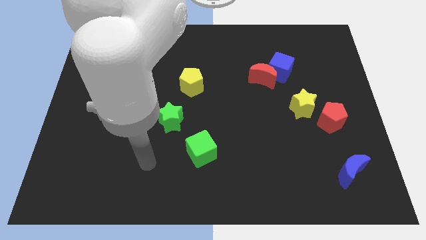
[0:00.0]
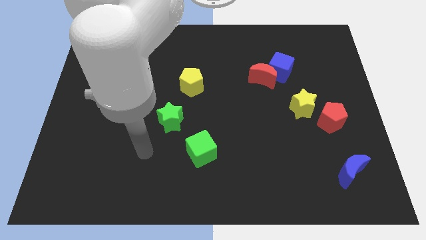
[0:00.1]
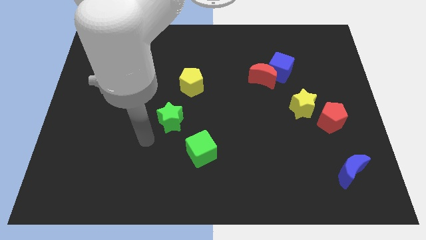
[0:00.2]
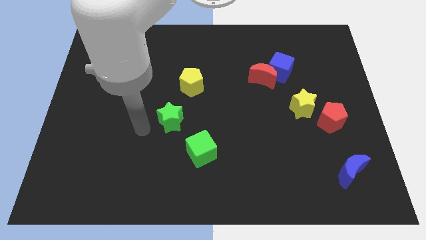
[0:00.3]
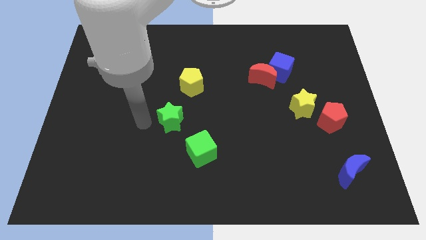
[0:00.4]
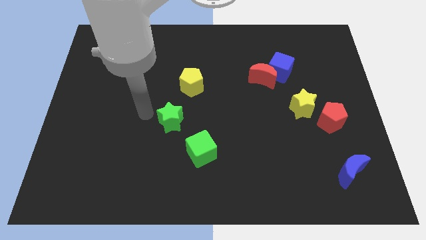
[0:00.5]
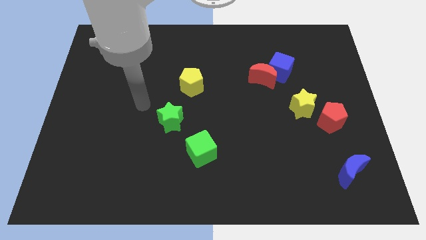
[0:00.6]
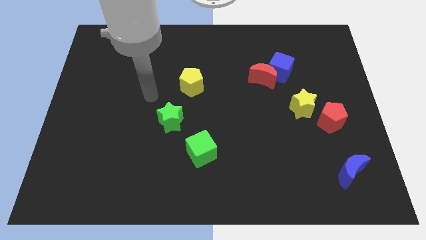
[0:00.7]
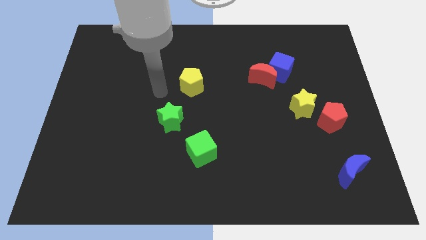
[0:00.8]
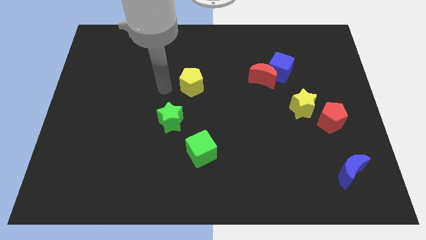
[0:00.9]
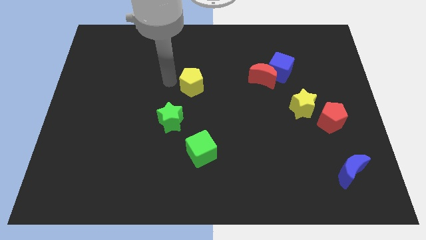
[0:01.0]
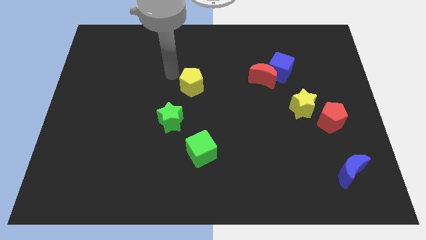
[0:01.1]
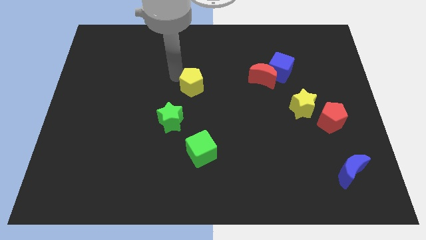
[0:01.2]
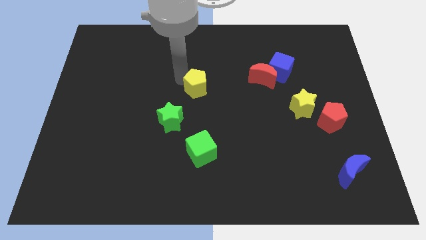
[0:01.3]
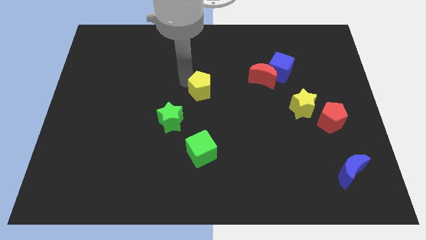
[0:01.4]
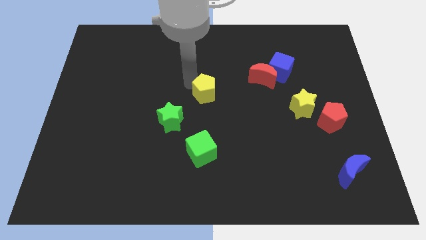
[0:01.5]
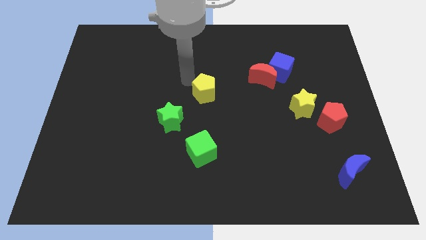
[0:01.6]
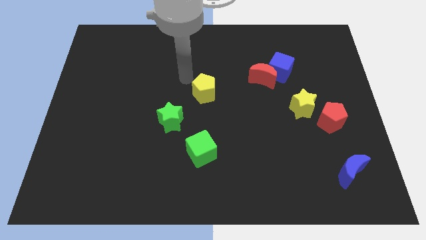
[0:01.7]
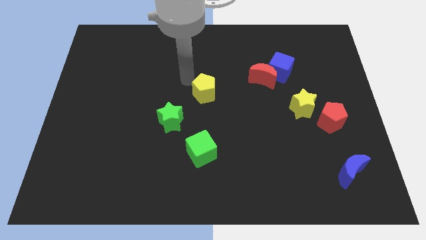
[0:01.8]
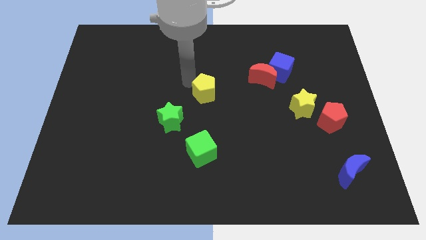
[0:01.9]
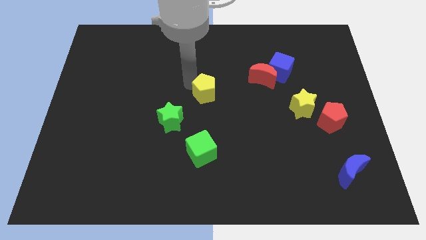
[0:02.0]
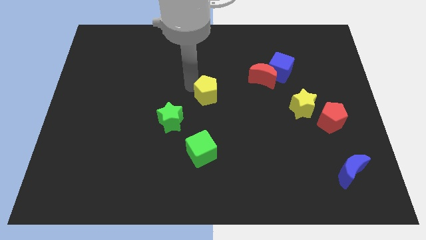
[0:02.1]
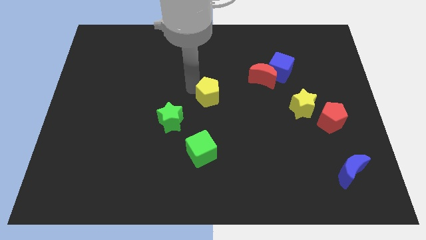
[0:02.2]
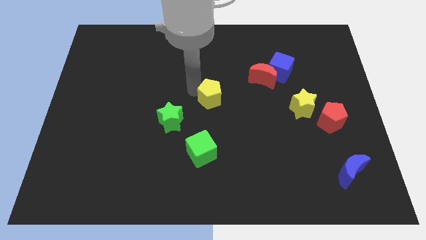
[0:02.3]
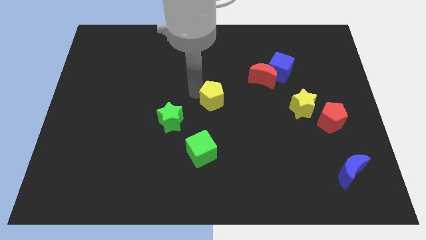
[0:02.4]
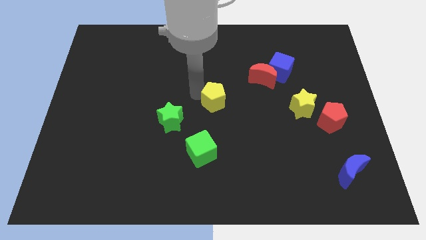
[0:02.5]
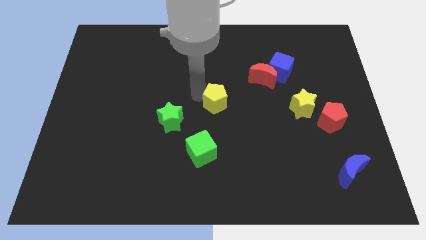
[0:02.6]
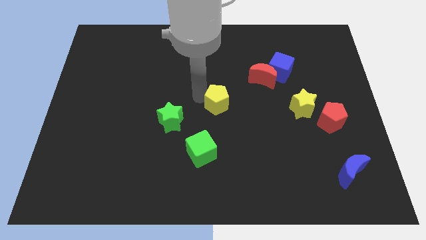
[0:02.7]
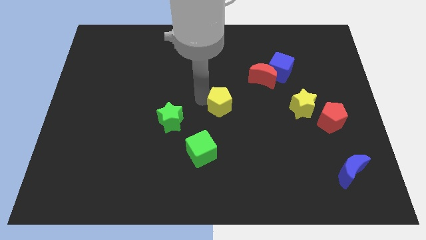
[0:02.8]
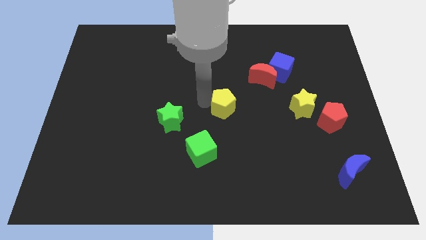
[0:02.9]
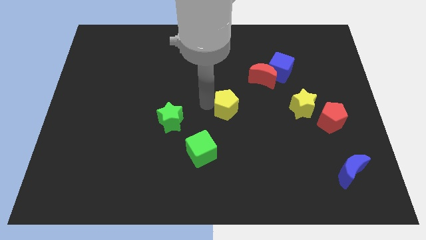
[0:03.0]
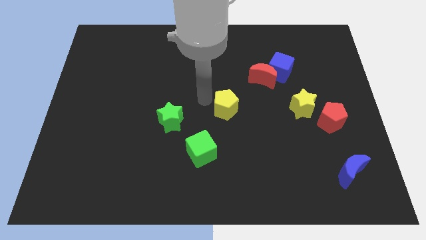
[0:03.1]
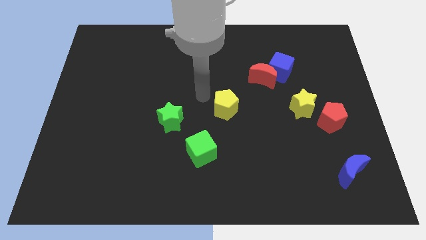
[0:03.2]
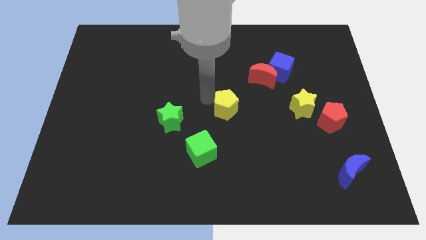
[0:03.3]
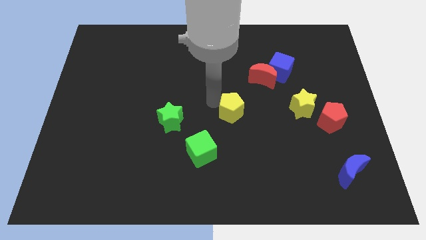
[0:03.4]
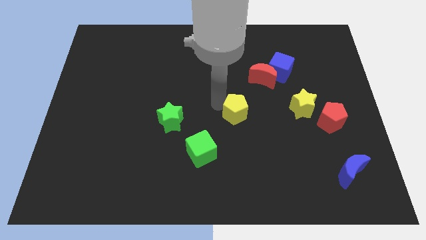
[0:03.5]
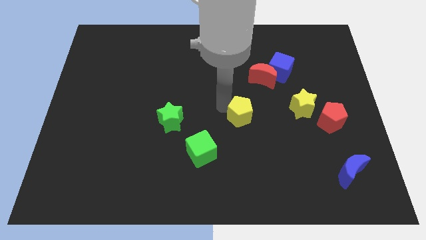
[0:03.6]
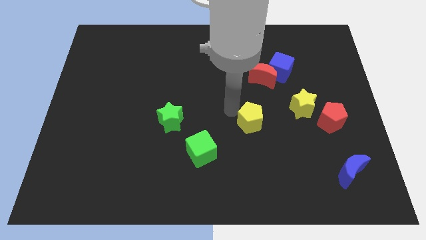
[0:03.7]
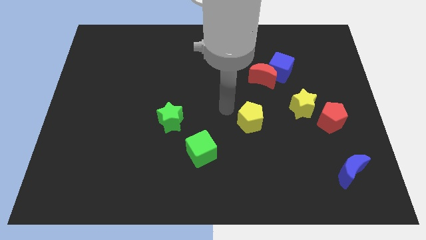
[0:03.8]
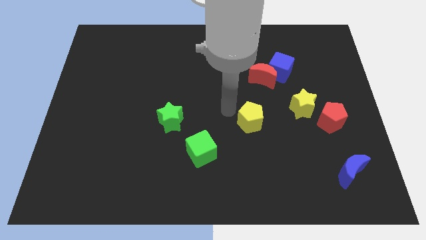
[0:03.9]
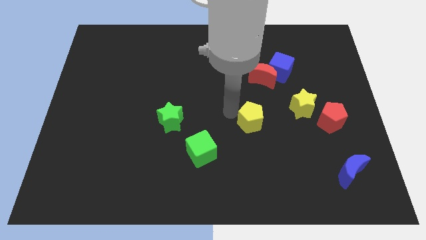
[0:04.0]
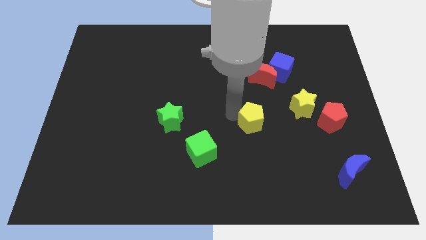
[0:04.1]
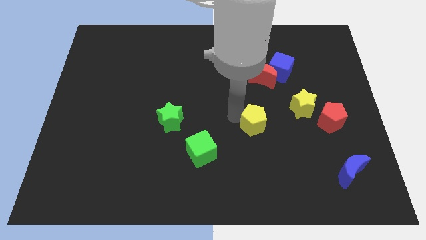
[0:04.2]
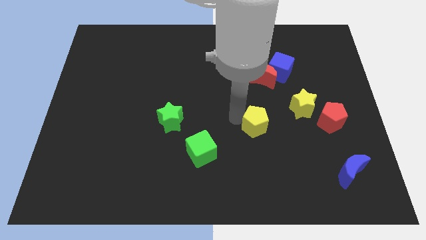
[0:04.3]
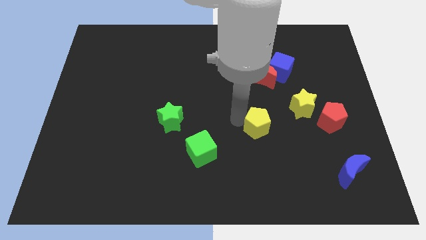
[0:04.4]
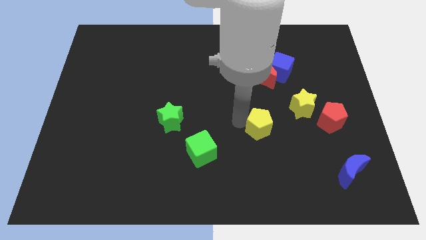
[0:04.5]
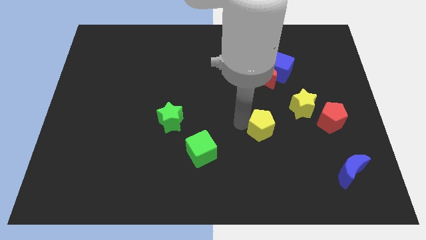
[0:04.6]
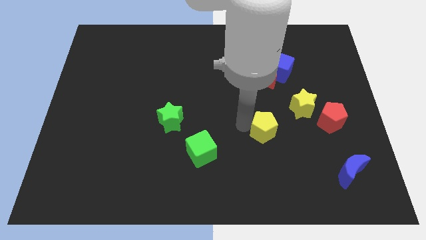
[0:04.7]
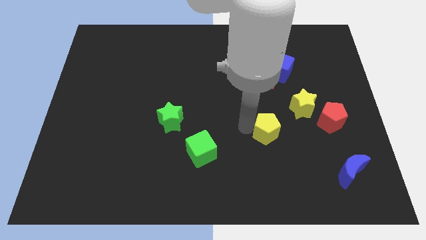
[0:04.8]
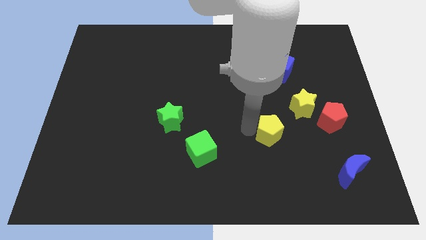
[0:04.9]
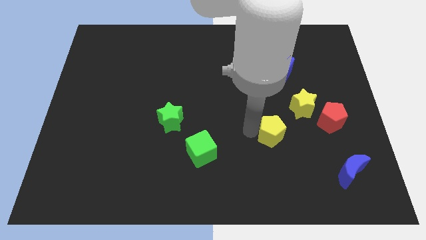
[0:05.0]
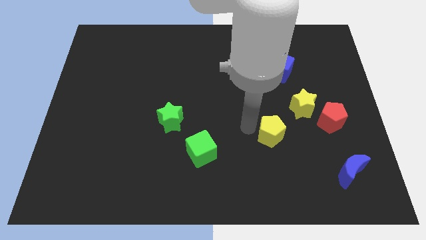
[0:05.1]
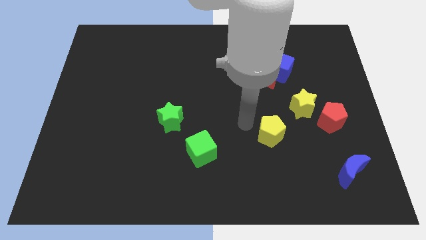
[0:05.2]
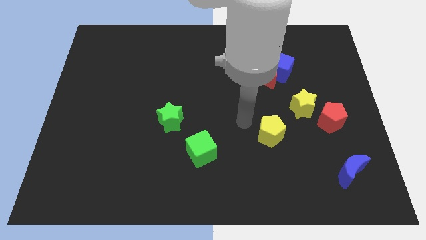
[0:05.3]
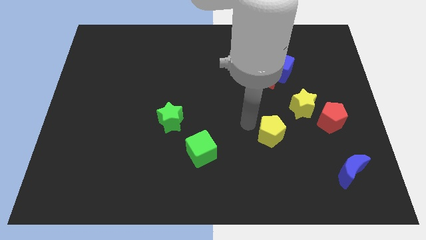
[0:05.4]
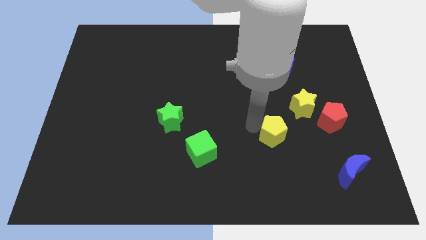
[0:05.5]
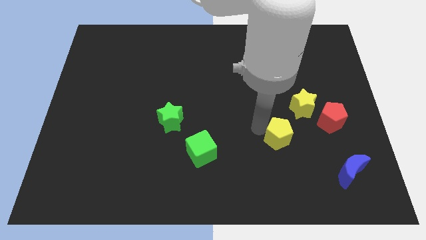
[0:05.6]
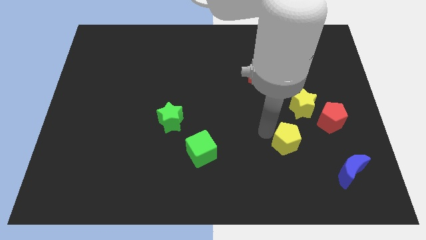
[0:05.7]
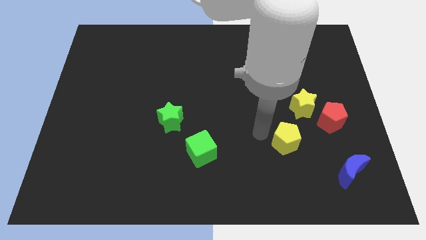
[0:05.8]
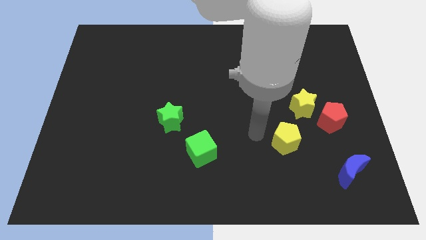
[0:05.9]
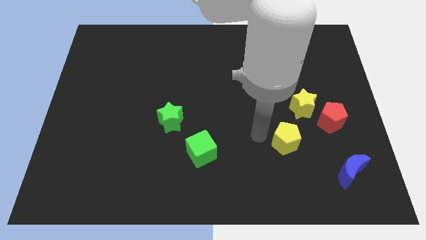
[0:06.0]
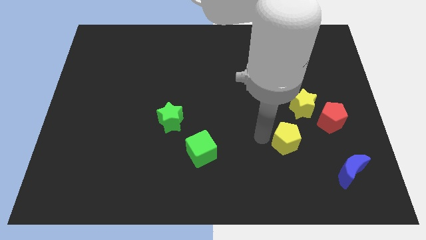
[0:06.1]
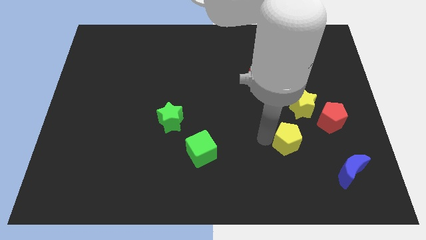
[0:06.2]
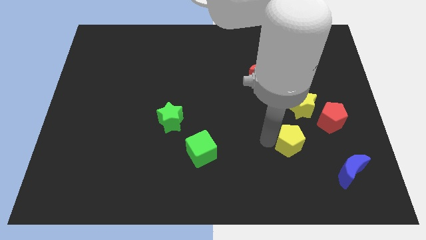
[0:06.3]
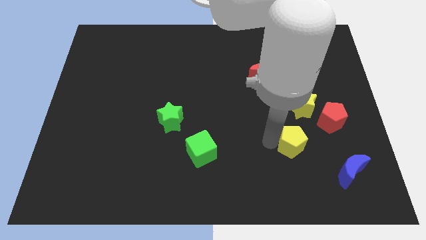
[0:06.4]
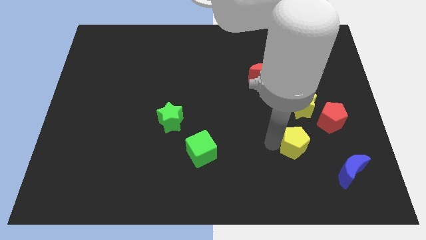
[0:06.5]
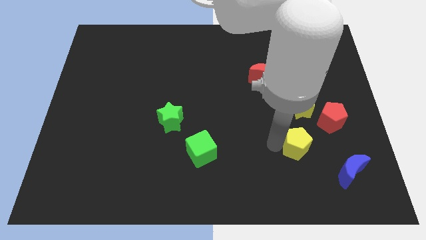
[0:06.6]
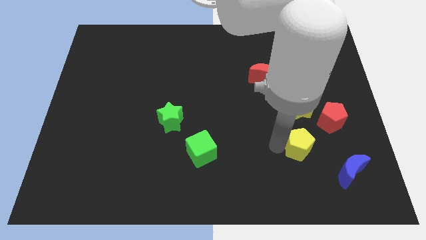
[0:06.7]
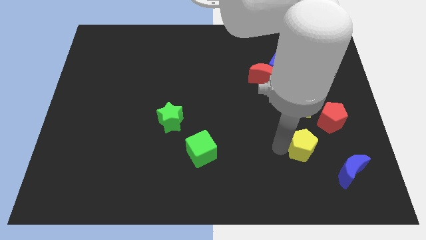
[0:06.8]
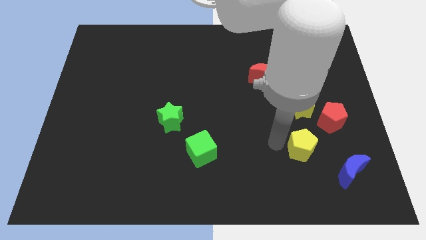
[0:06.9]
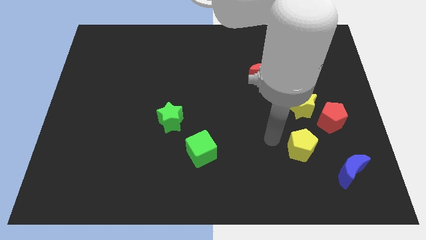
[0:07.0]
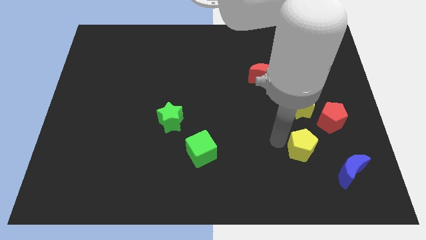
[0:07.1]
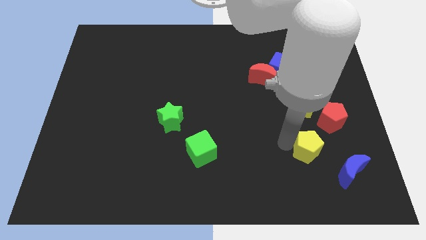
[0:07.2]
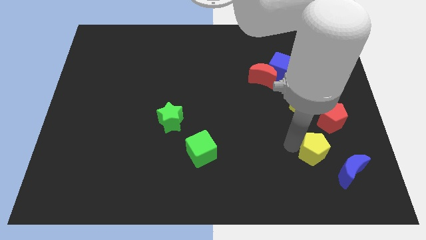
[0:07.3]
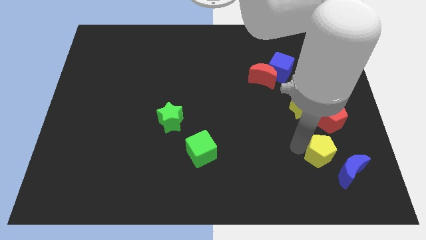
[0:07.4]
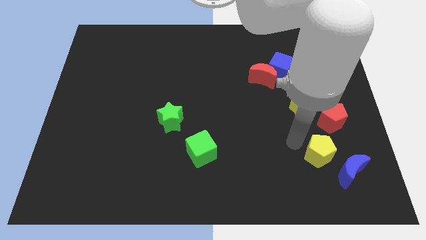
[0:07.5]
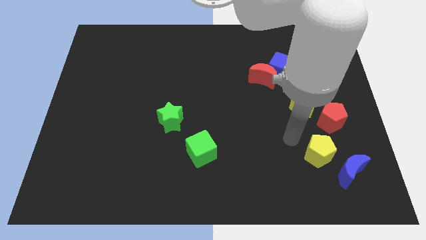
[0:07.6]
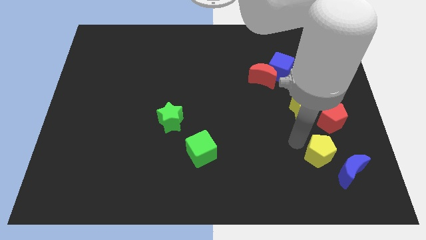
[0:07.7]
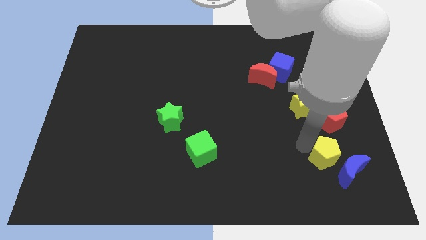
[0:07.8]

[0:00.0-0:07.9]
move the yellow pentagon close to the blue moon
